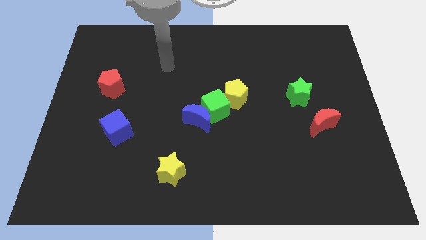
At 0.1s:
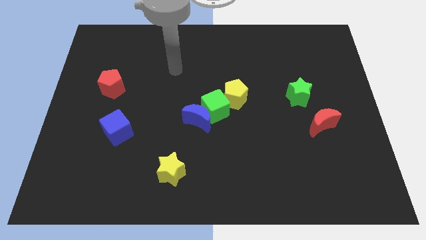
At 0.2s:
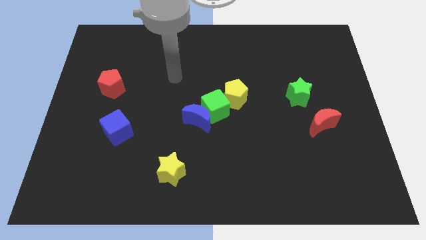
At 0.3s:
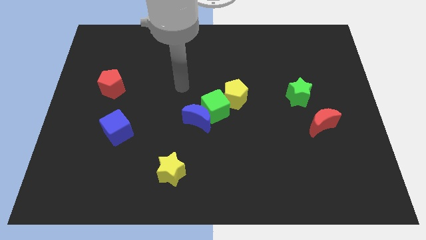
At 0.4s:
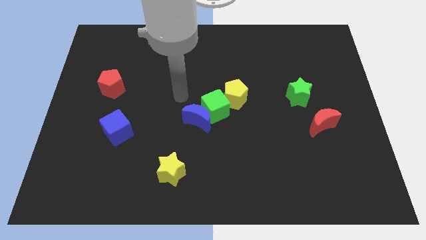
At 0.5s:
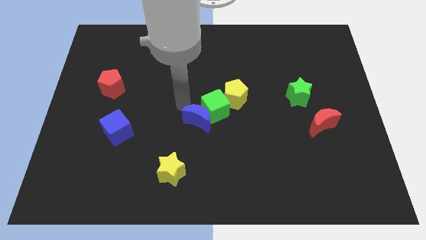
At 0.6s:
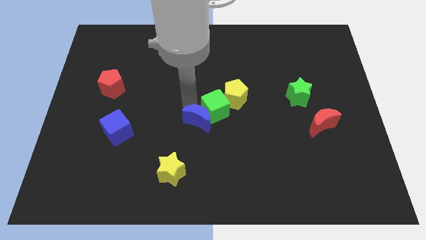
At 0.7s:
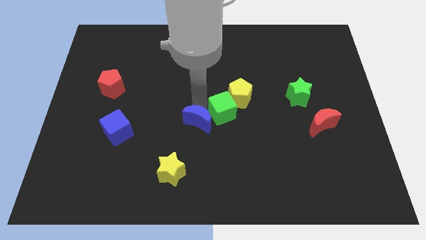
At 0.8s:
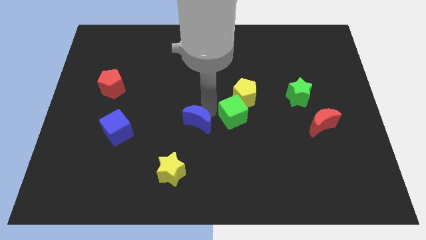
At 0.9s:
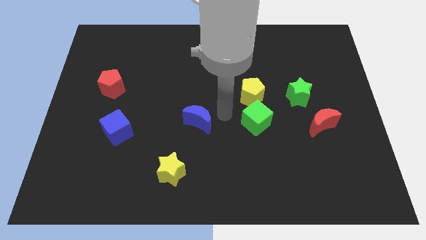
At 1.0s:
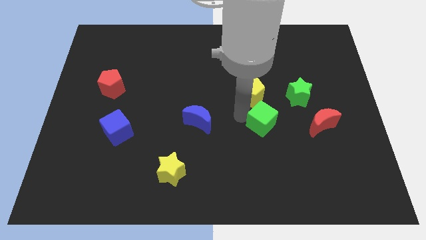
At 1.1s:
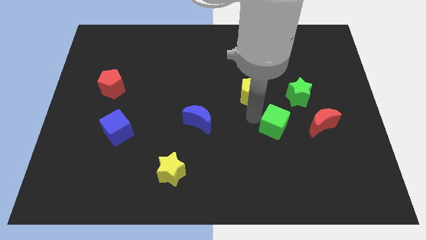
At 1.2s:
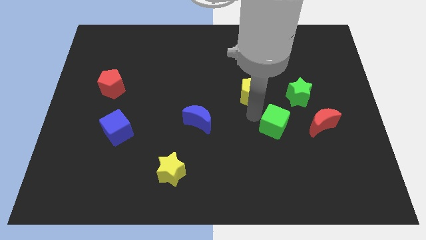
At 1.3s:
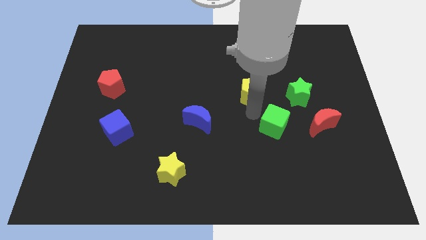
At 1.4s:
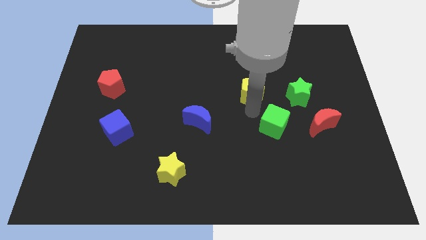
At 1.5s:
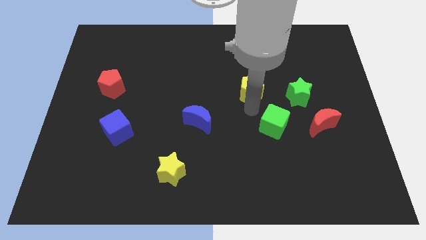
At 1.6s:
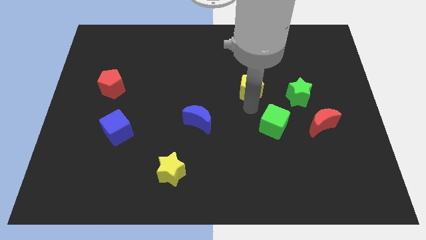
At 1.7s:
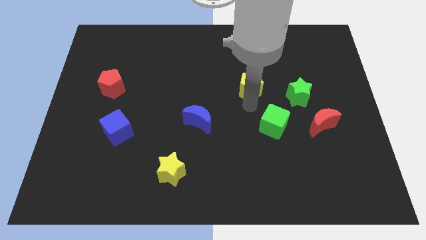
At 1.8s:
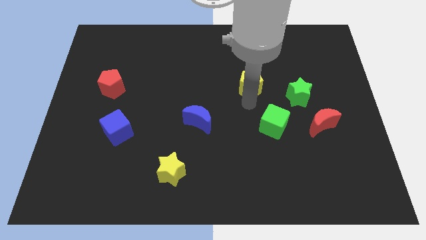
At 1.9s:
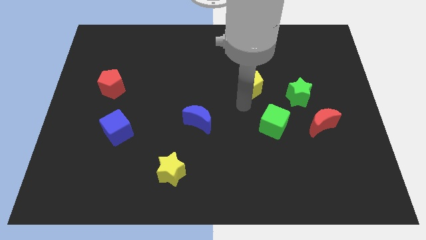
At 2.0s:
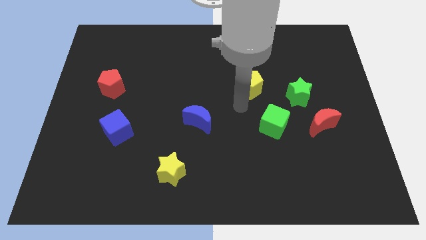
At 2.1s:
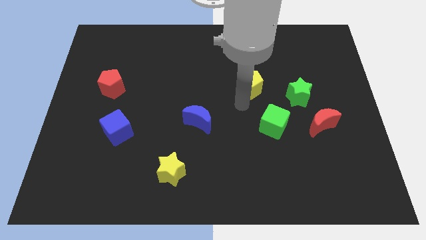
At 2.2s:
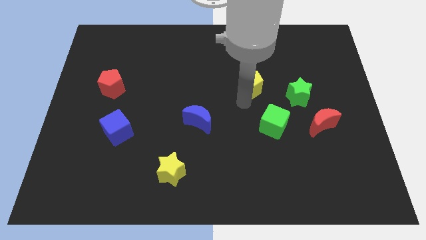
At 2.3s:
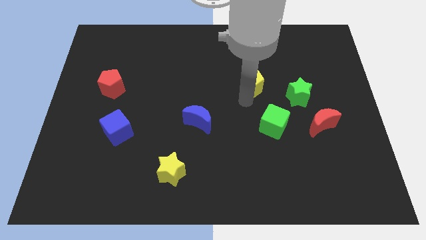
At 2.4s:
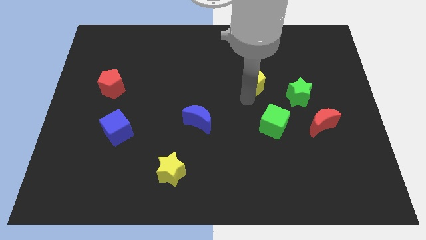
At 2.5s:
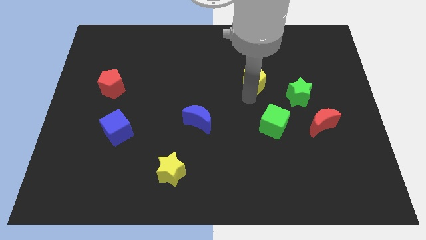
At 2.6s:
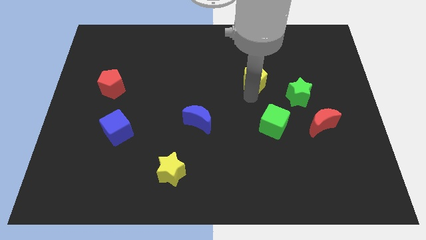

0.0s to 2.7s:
slide the yellow pentagon upwards and then to the right somewhat

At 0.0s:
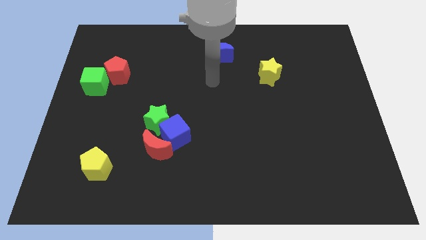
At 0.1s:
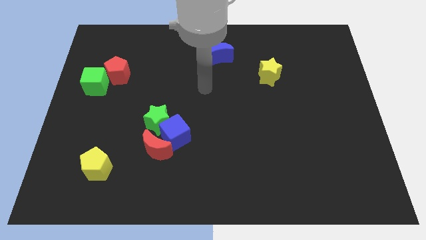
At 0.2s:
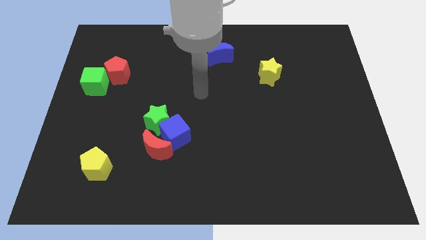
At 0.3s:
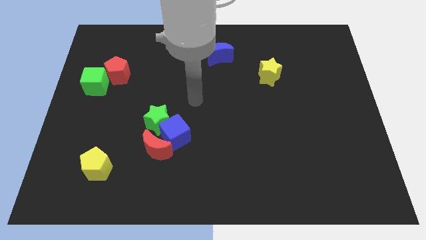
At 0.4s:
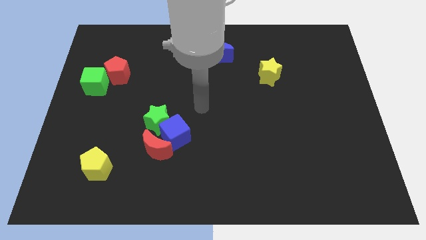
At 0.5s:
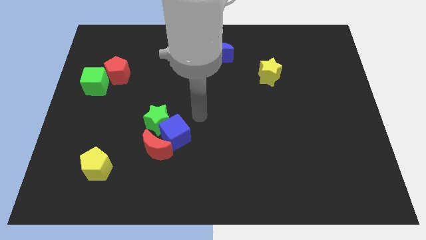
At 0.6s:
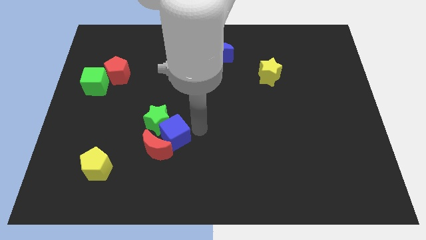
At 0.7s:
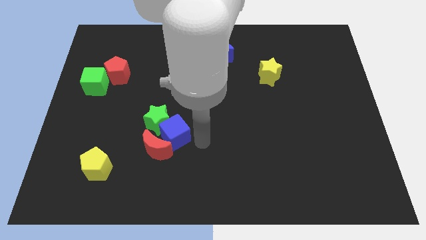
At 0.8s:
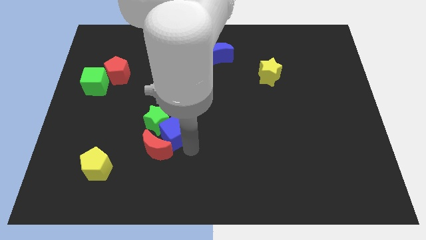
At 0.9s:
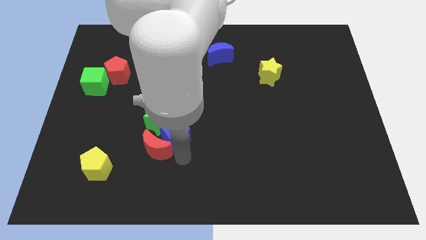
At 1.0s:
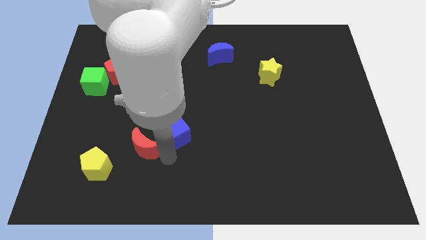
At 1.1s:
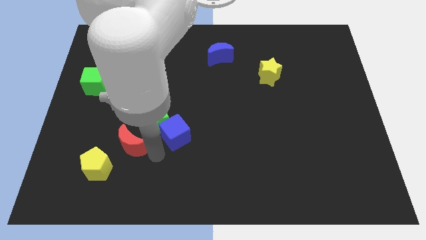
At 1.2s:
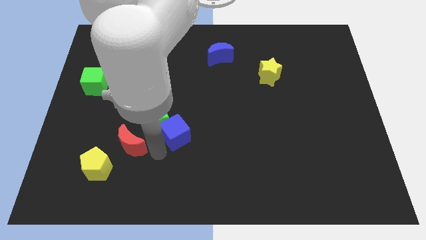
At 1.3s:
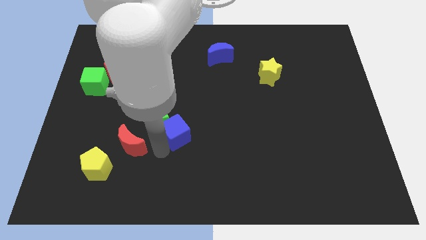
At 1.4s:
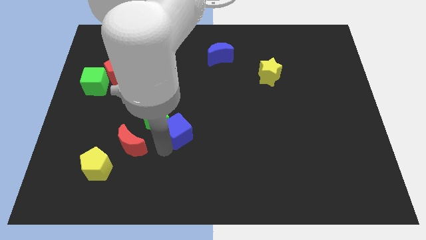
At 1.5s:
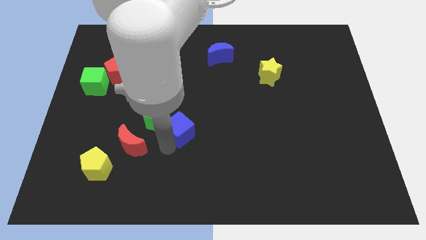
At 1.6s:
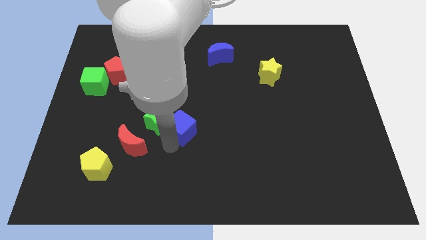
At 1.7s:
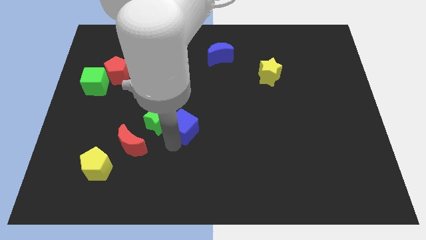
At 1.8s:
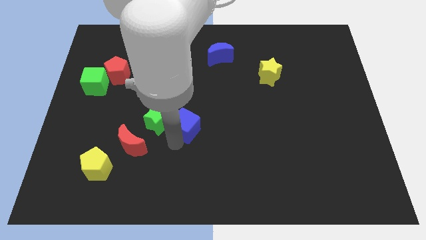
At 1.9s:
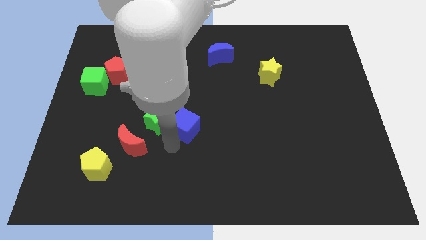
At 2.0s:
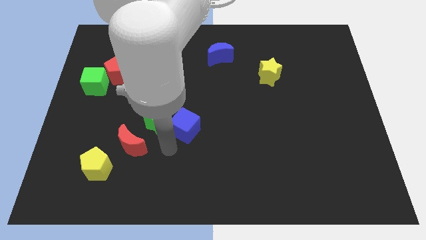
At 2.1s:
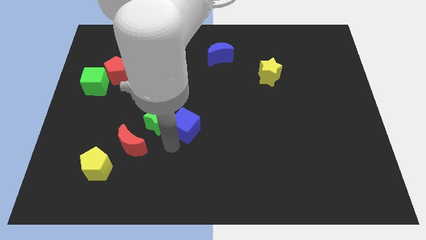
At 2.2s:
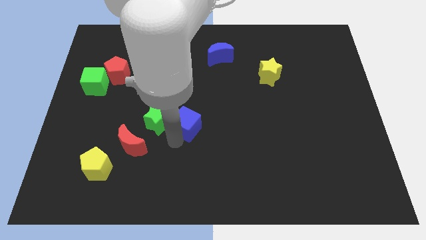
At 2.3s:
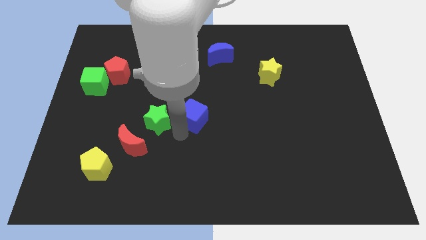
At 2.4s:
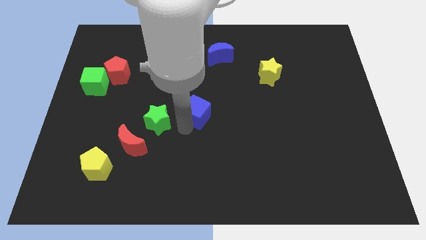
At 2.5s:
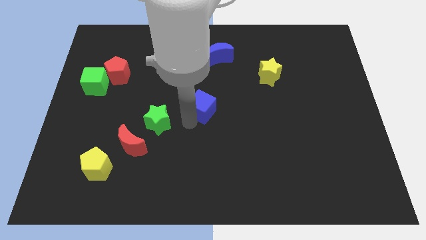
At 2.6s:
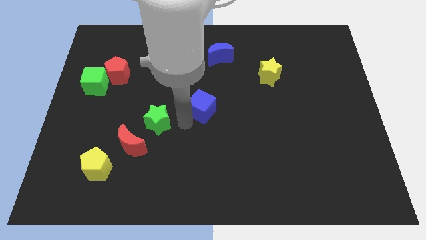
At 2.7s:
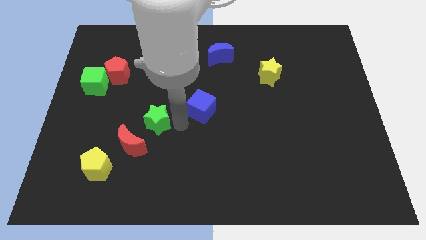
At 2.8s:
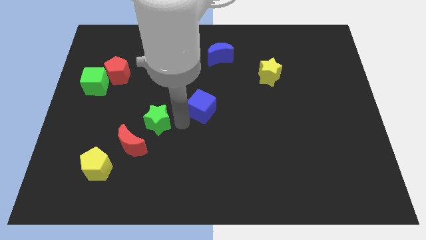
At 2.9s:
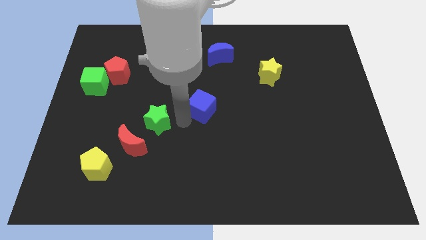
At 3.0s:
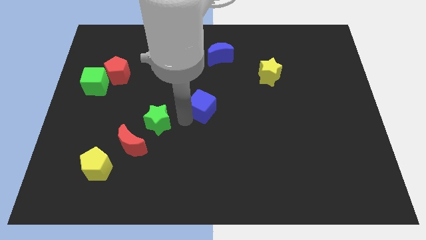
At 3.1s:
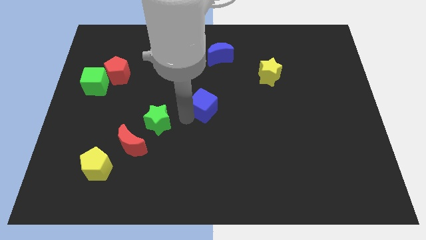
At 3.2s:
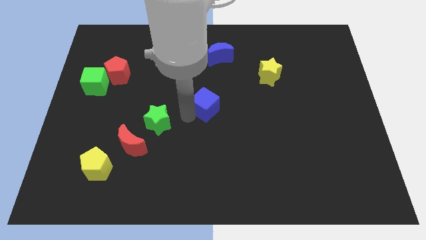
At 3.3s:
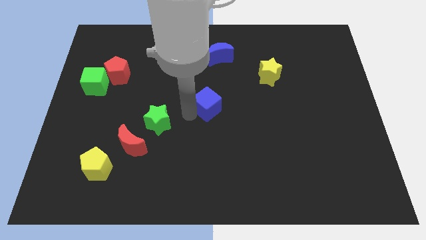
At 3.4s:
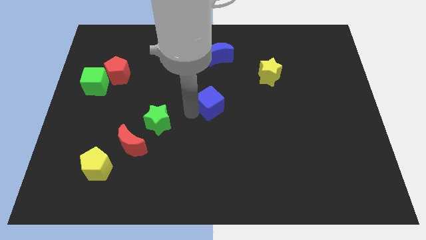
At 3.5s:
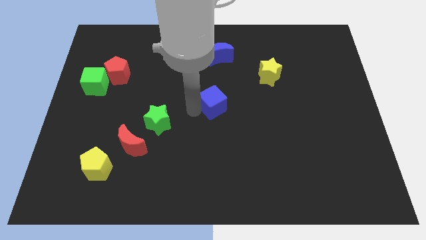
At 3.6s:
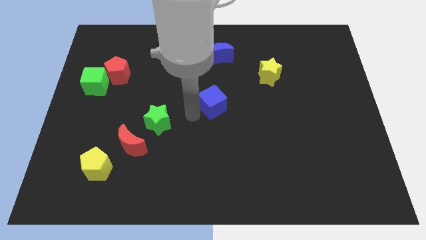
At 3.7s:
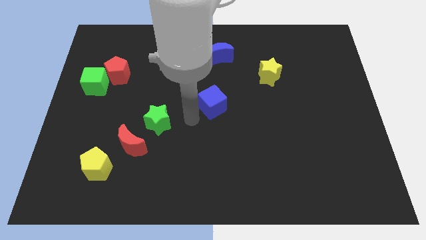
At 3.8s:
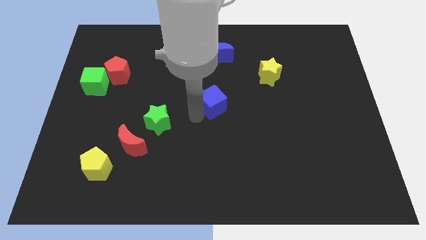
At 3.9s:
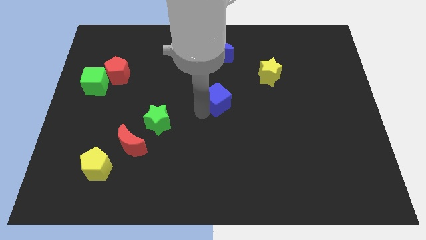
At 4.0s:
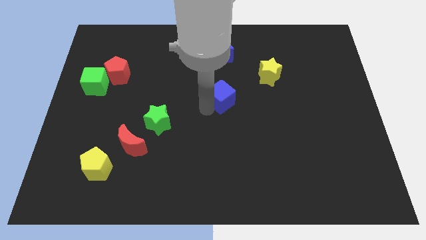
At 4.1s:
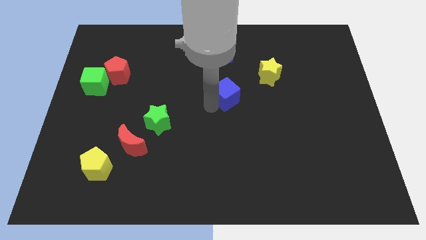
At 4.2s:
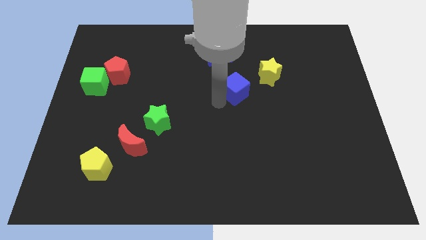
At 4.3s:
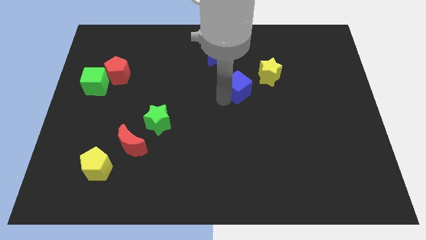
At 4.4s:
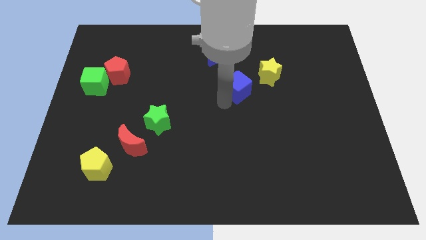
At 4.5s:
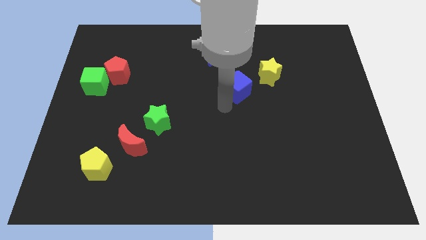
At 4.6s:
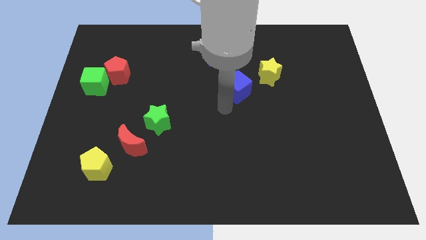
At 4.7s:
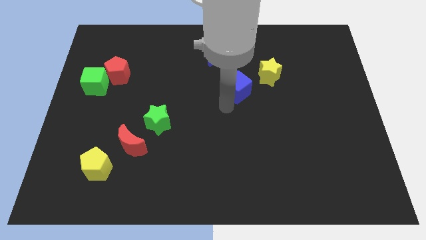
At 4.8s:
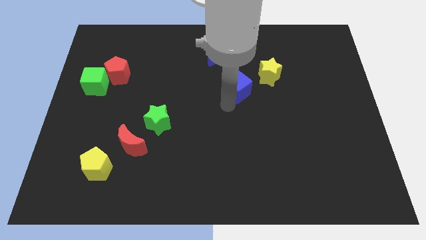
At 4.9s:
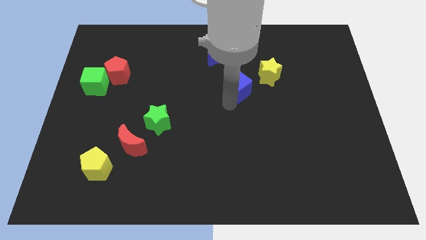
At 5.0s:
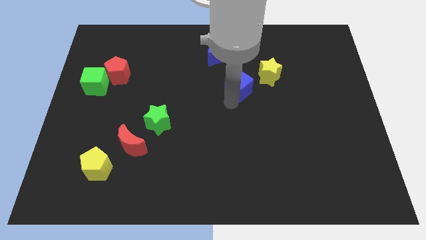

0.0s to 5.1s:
push the blue cube up and right diagonally
